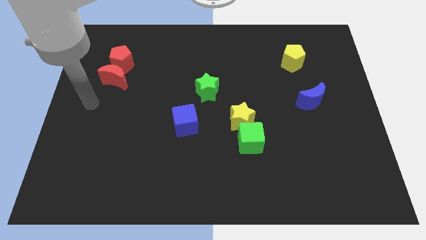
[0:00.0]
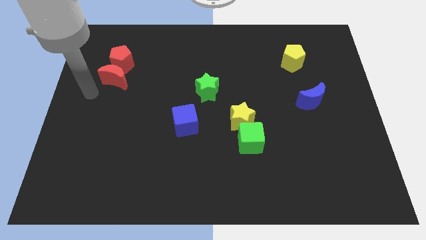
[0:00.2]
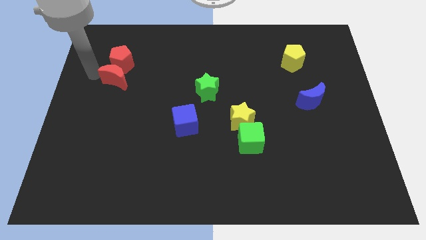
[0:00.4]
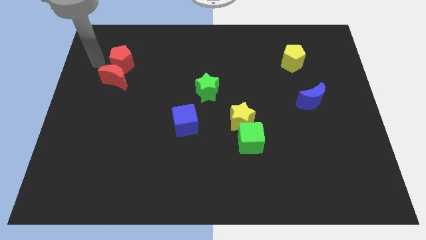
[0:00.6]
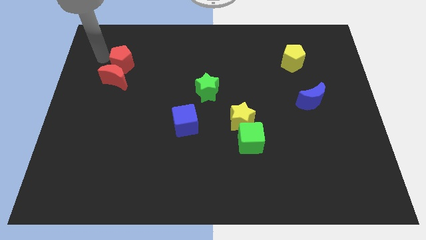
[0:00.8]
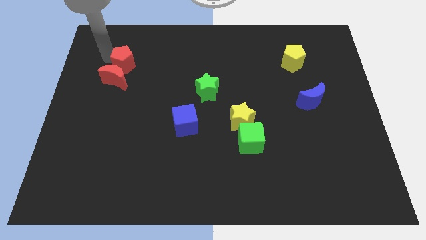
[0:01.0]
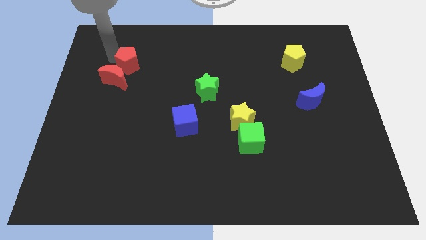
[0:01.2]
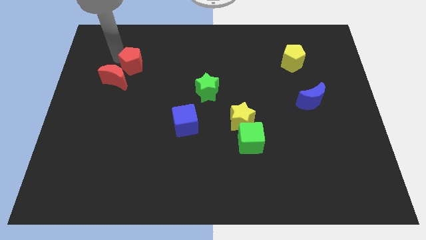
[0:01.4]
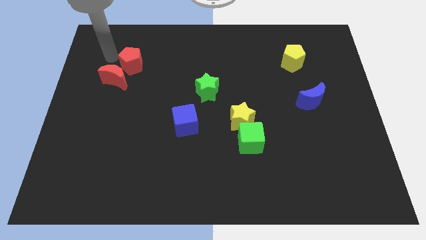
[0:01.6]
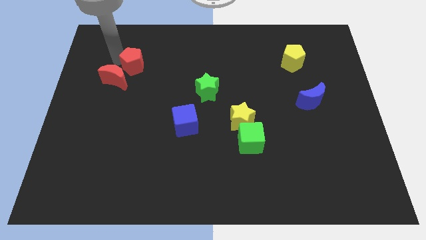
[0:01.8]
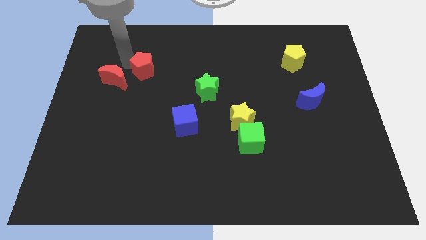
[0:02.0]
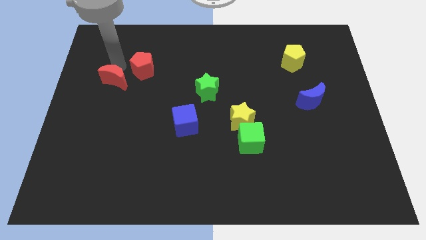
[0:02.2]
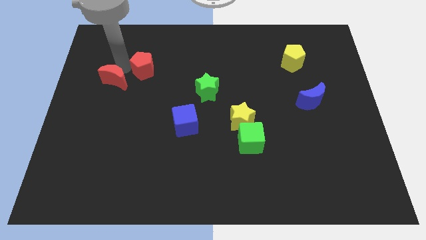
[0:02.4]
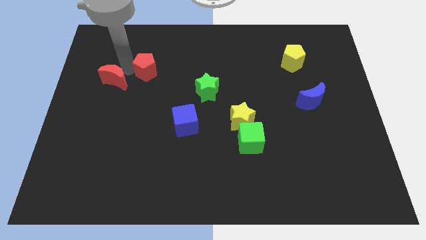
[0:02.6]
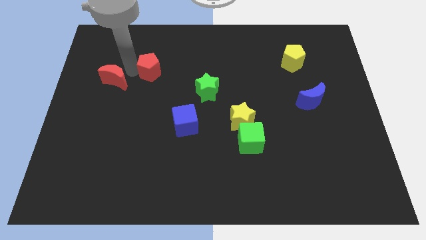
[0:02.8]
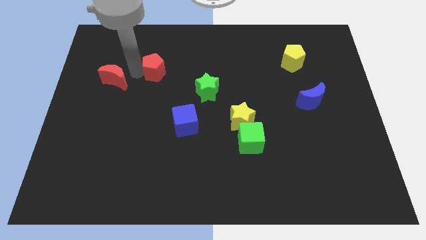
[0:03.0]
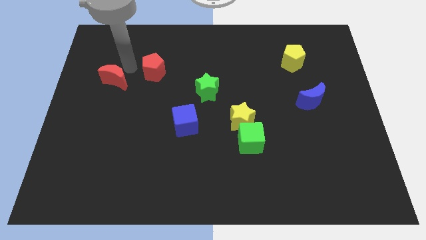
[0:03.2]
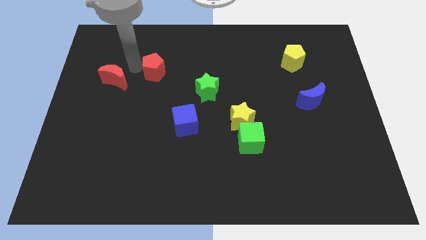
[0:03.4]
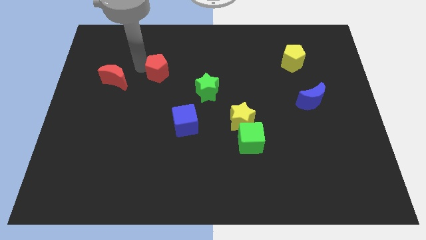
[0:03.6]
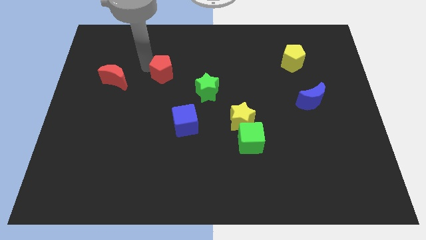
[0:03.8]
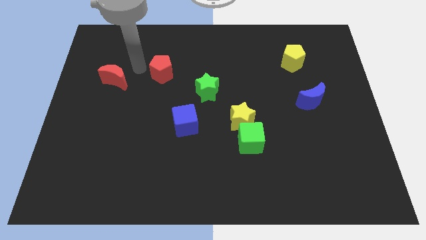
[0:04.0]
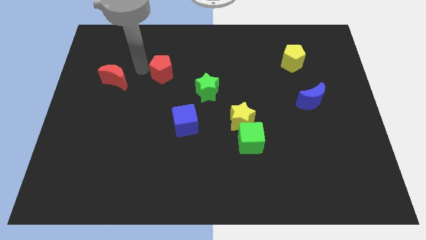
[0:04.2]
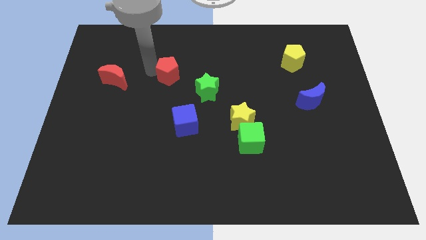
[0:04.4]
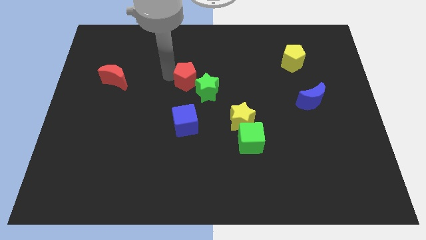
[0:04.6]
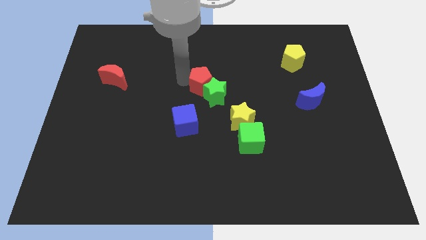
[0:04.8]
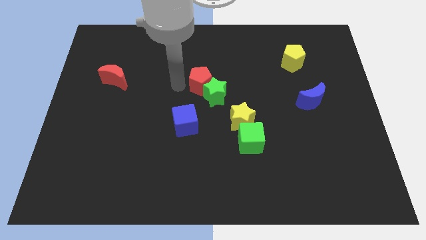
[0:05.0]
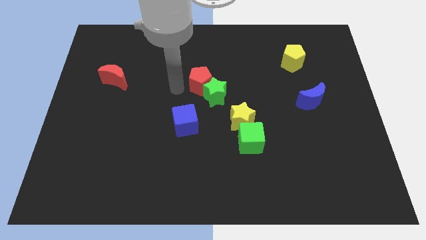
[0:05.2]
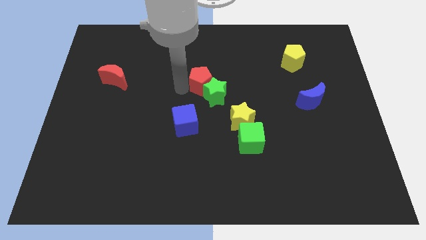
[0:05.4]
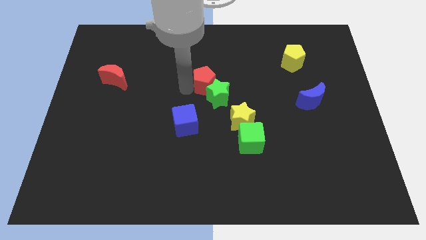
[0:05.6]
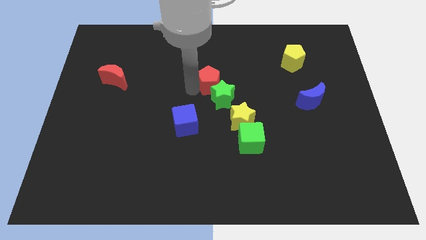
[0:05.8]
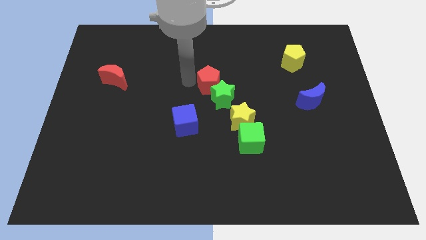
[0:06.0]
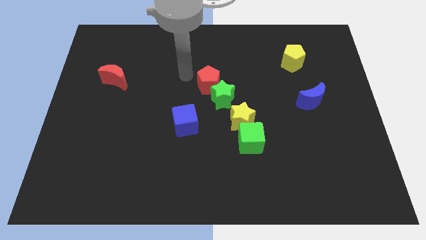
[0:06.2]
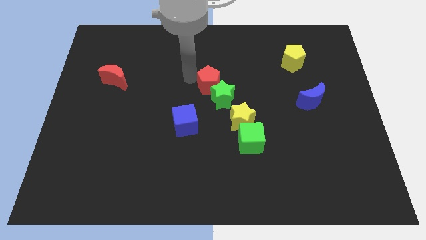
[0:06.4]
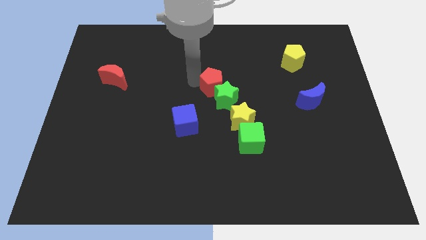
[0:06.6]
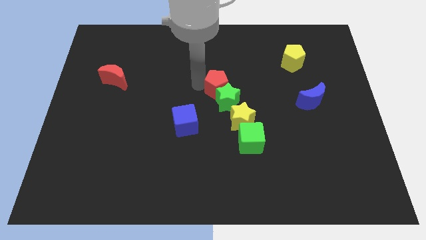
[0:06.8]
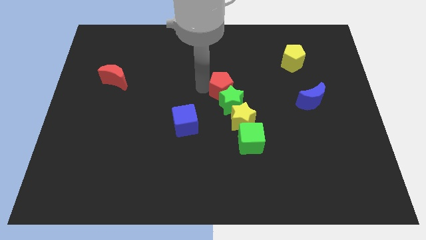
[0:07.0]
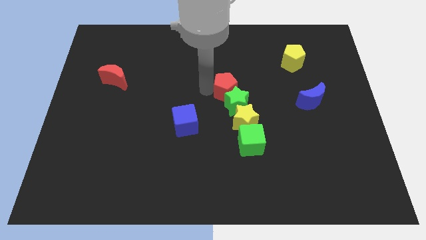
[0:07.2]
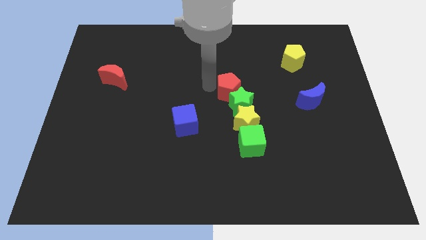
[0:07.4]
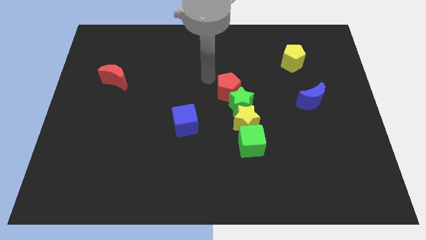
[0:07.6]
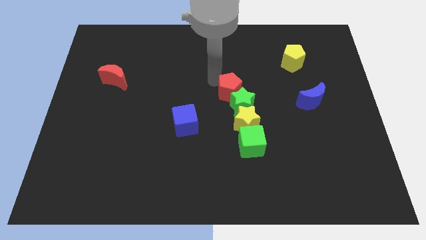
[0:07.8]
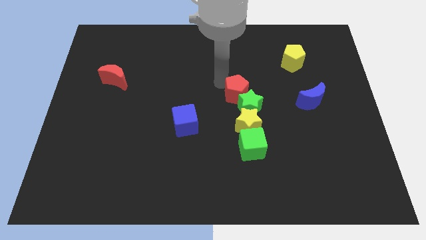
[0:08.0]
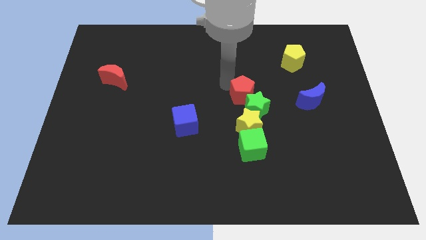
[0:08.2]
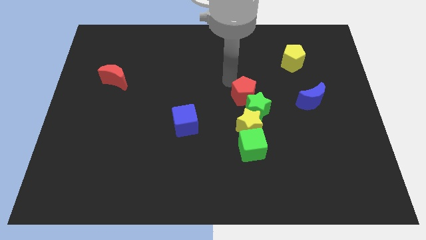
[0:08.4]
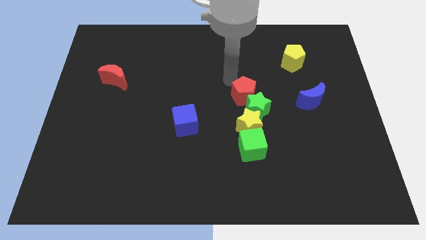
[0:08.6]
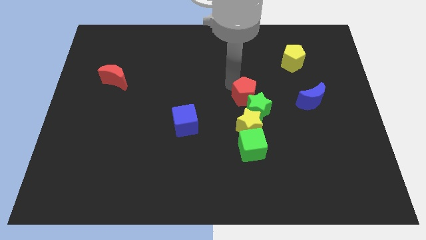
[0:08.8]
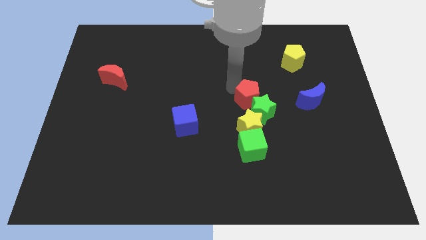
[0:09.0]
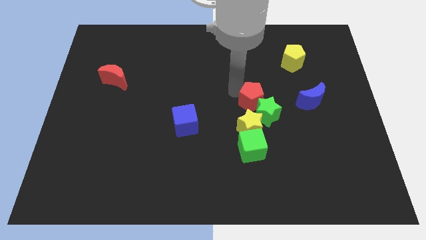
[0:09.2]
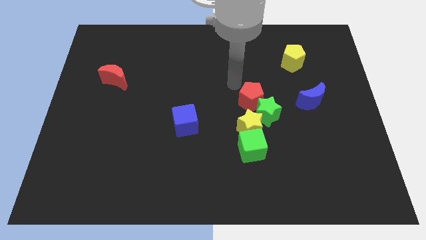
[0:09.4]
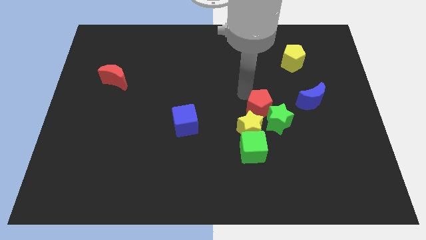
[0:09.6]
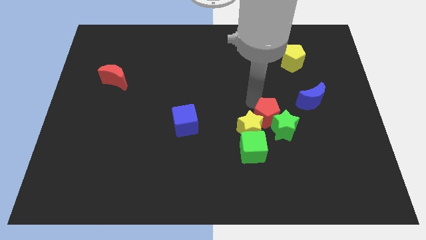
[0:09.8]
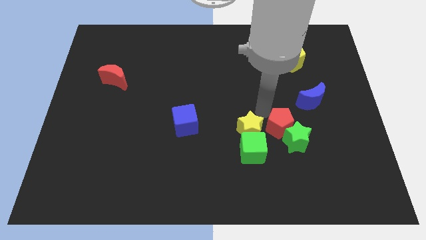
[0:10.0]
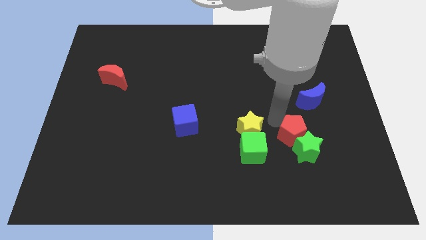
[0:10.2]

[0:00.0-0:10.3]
slide the red pentagon right of the green cube
